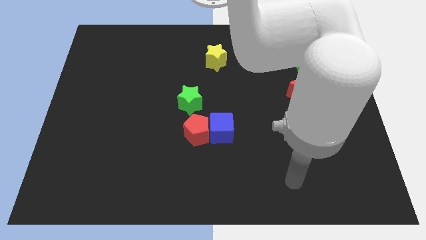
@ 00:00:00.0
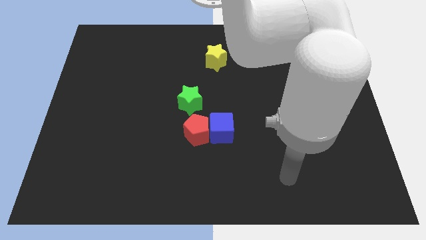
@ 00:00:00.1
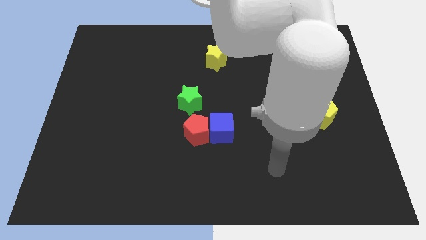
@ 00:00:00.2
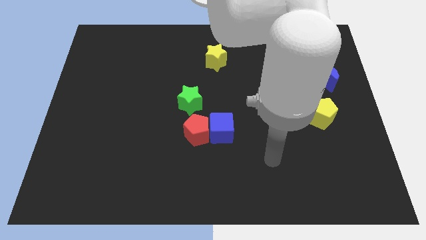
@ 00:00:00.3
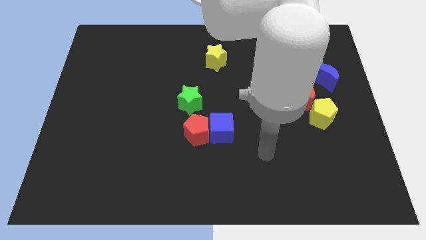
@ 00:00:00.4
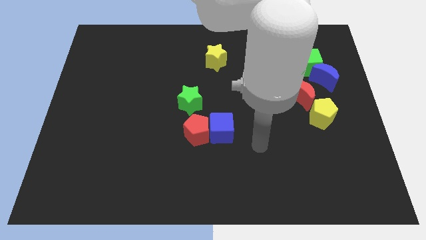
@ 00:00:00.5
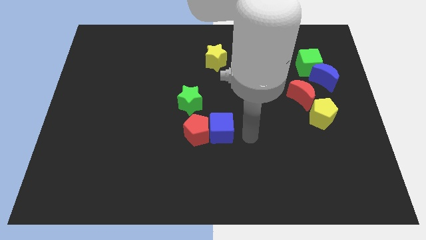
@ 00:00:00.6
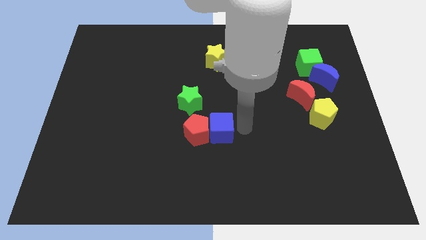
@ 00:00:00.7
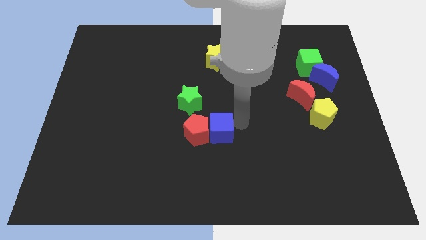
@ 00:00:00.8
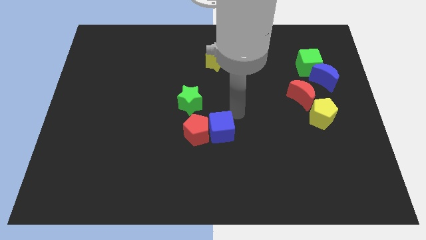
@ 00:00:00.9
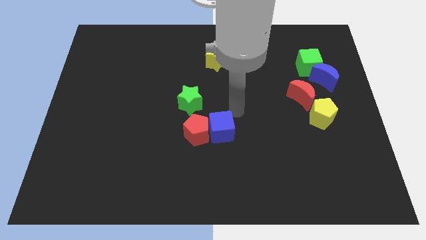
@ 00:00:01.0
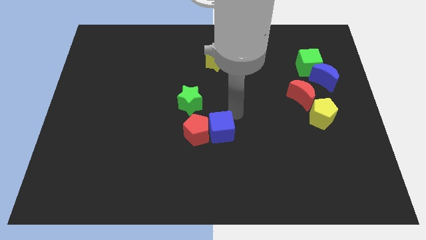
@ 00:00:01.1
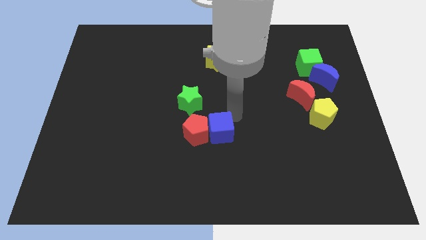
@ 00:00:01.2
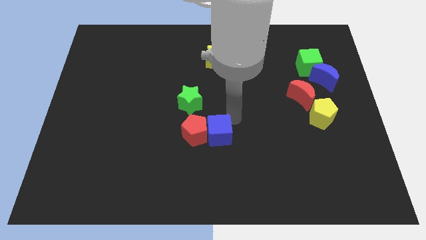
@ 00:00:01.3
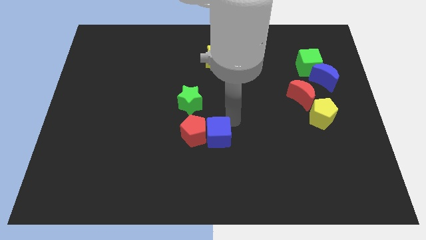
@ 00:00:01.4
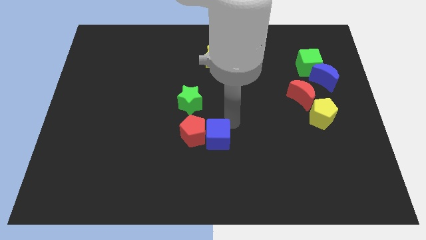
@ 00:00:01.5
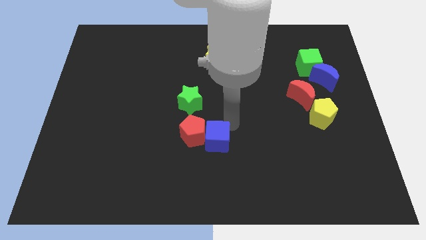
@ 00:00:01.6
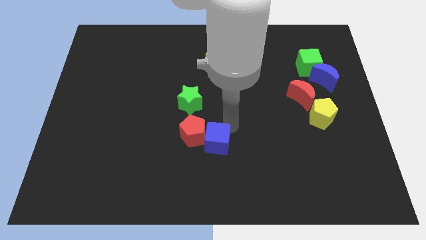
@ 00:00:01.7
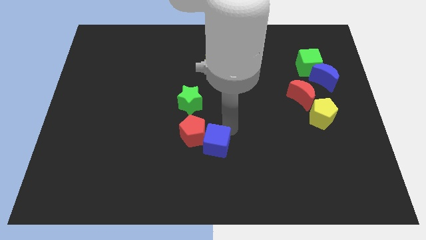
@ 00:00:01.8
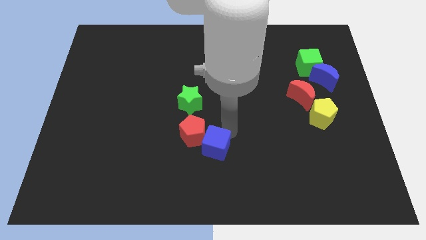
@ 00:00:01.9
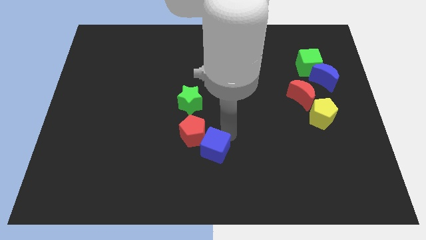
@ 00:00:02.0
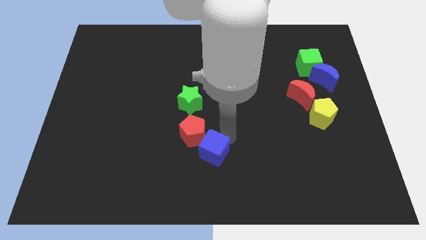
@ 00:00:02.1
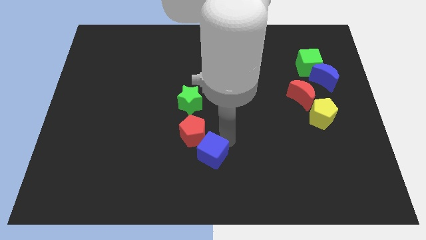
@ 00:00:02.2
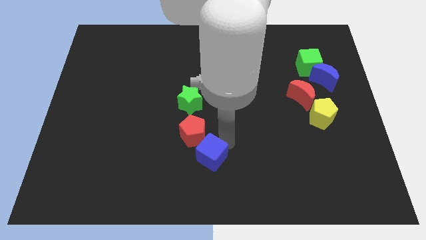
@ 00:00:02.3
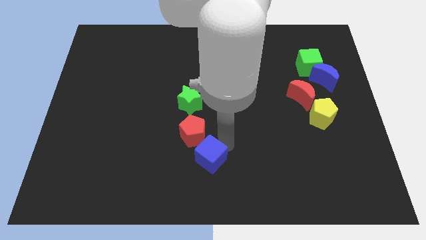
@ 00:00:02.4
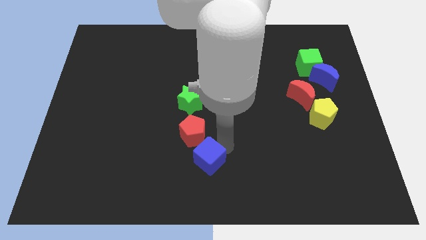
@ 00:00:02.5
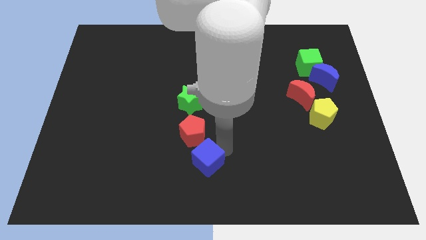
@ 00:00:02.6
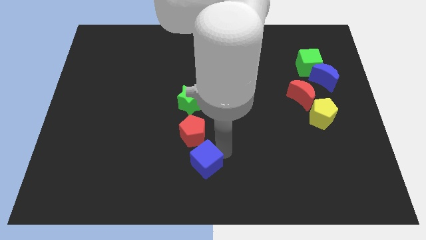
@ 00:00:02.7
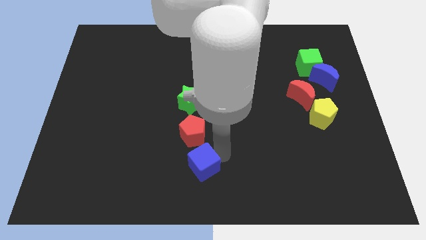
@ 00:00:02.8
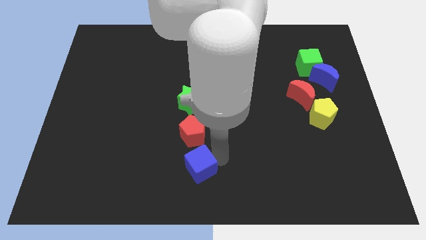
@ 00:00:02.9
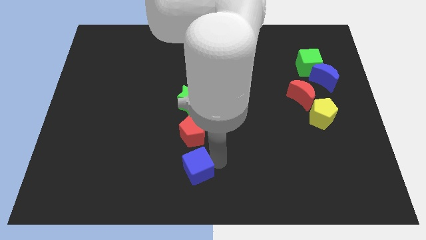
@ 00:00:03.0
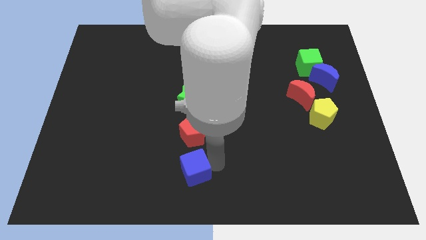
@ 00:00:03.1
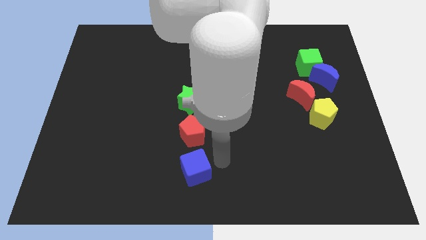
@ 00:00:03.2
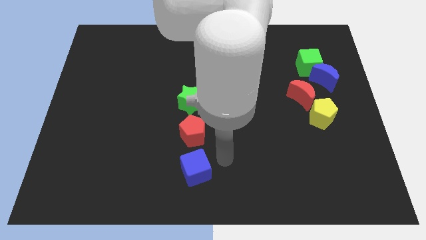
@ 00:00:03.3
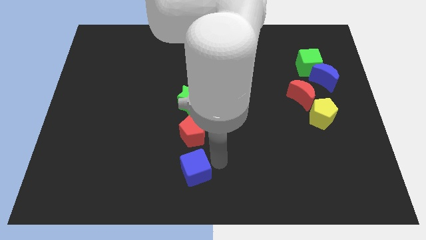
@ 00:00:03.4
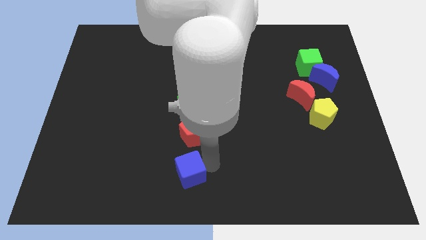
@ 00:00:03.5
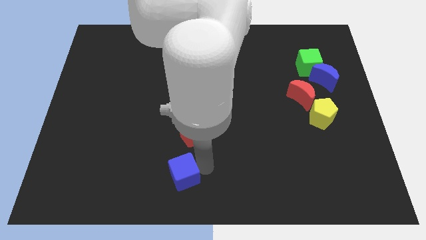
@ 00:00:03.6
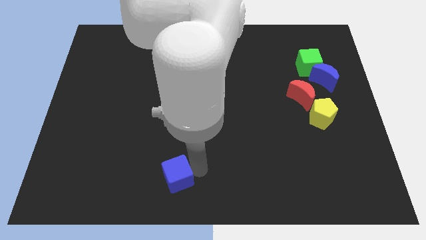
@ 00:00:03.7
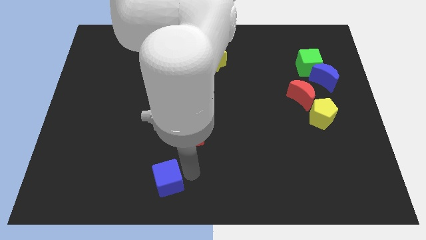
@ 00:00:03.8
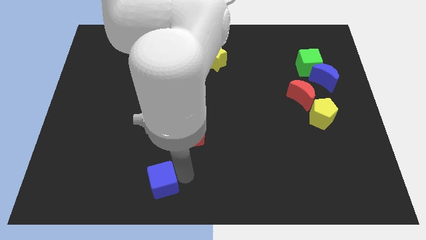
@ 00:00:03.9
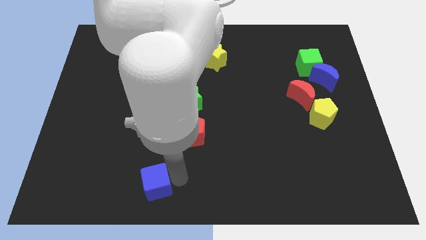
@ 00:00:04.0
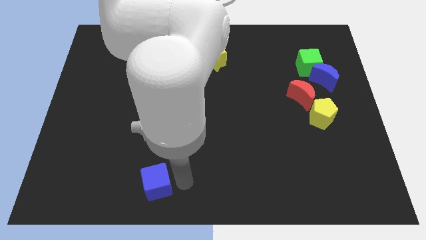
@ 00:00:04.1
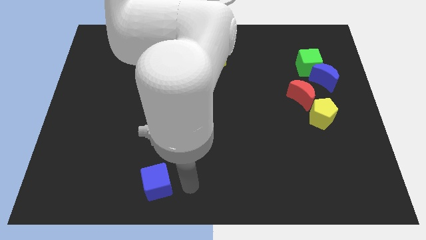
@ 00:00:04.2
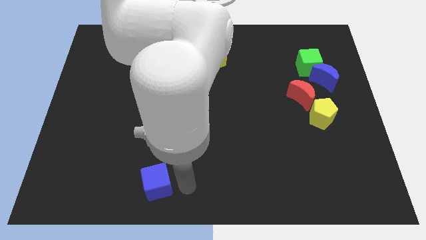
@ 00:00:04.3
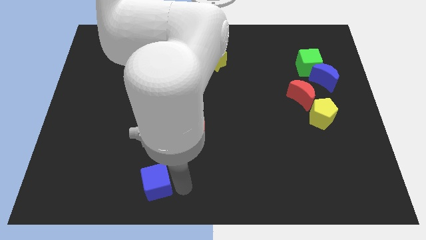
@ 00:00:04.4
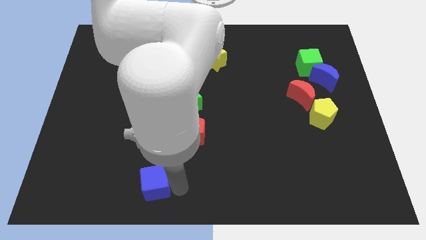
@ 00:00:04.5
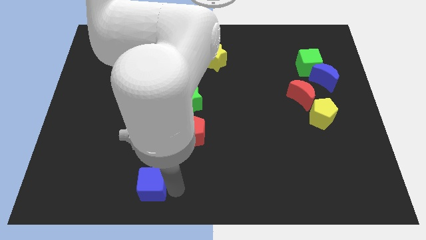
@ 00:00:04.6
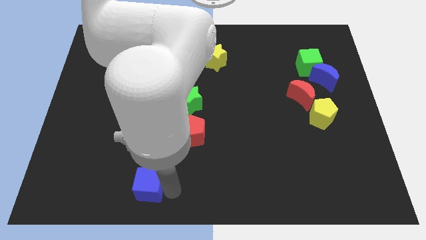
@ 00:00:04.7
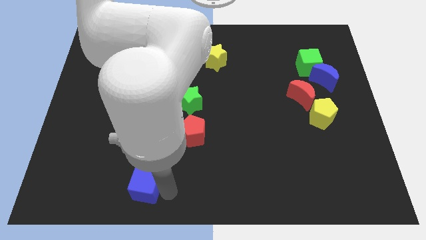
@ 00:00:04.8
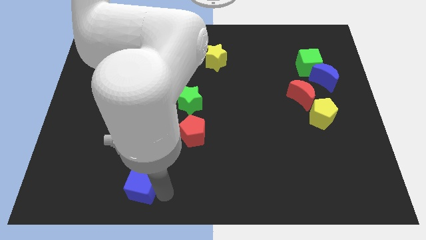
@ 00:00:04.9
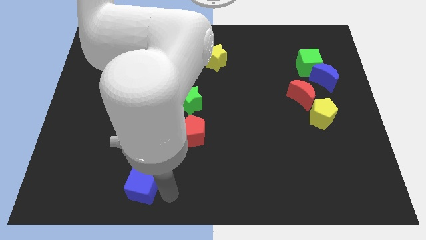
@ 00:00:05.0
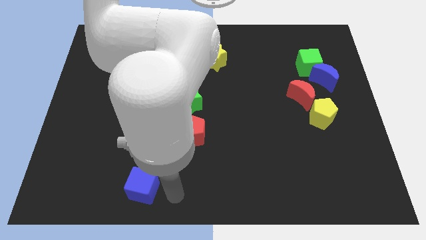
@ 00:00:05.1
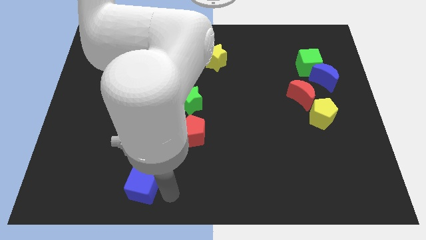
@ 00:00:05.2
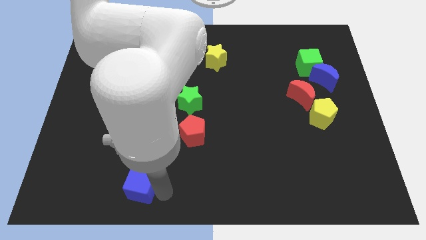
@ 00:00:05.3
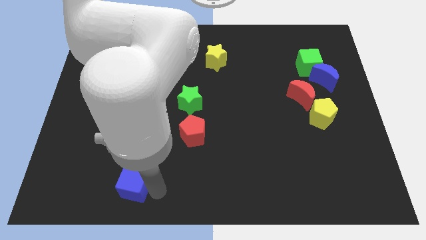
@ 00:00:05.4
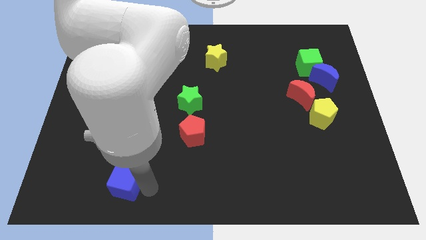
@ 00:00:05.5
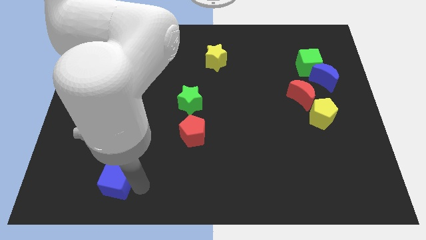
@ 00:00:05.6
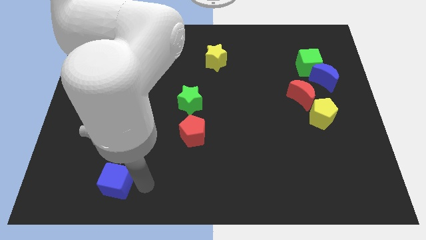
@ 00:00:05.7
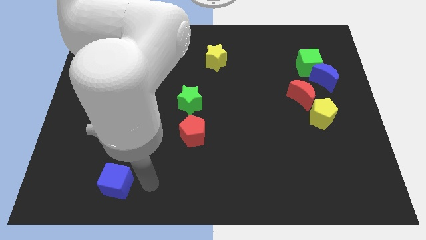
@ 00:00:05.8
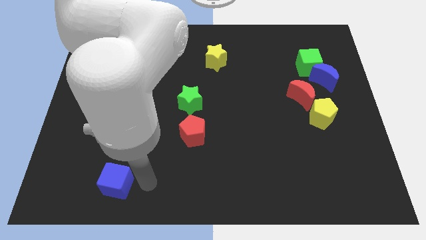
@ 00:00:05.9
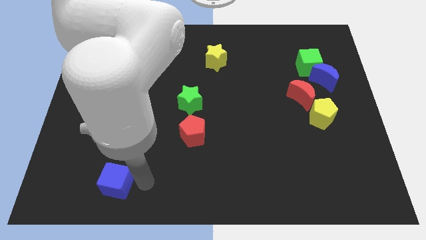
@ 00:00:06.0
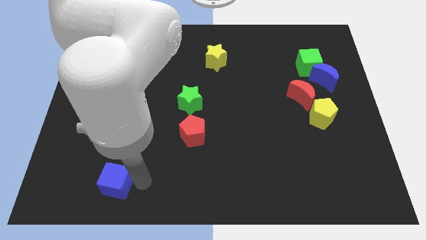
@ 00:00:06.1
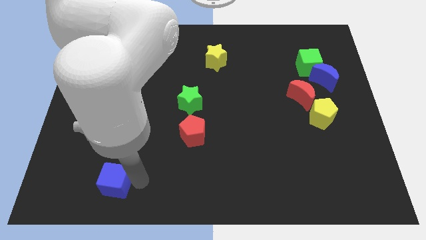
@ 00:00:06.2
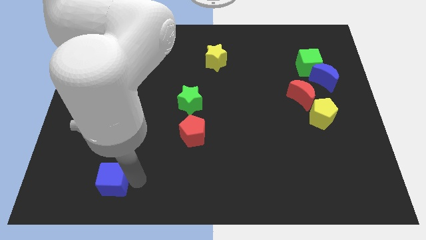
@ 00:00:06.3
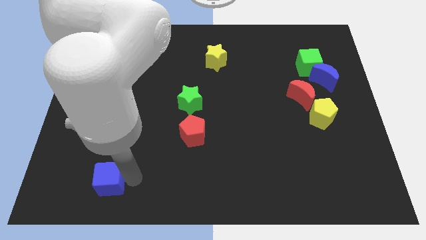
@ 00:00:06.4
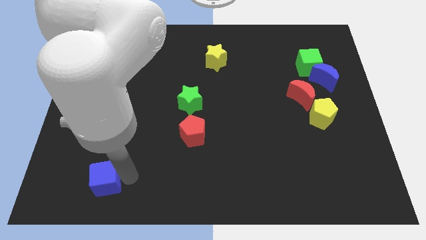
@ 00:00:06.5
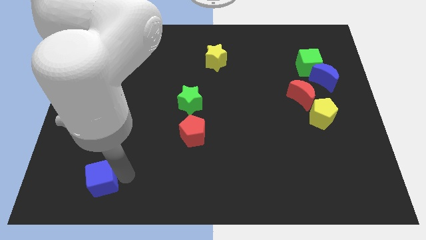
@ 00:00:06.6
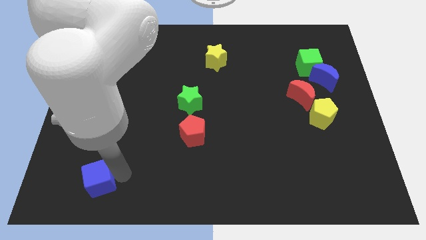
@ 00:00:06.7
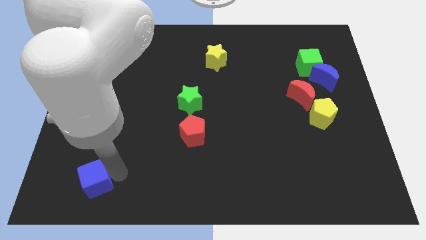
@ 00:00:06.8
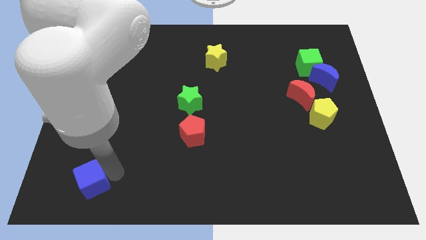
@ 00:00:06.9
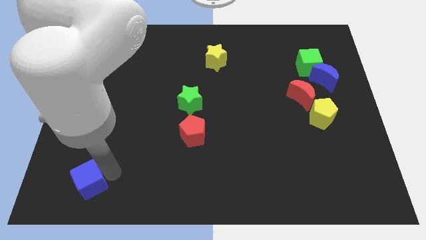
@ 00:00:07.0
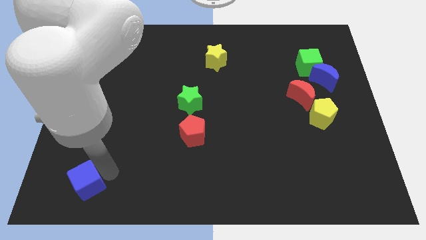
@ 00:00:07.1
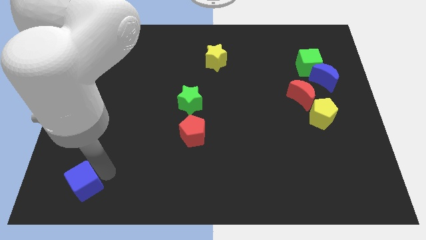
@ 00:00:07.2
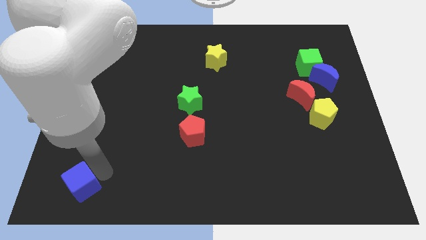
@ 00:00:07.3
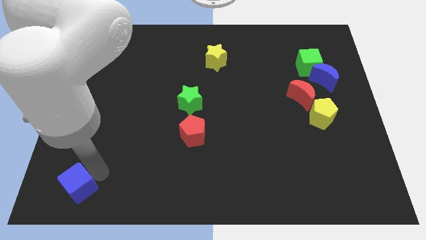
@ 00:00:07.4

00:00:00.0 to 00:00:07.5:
put the blue cube to the bottom left
